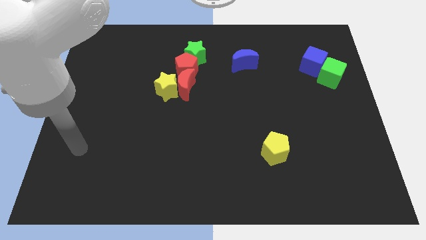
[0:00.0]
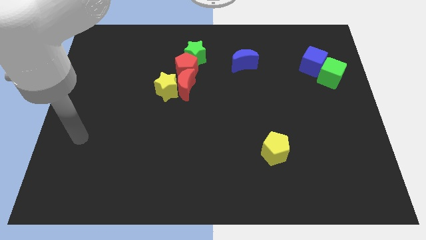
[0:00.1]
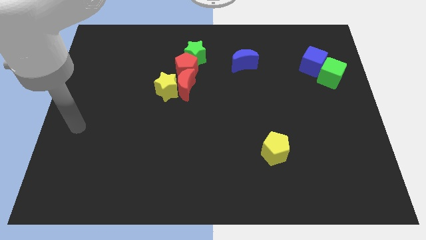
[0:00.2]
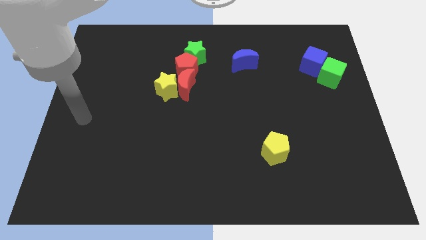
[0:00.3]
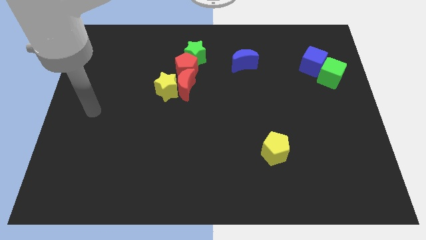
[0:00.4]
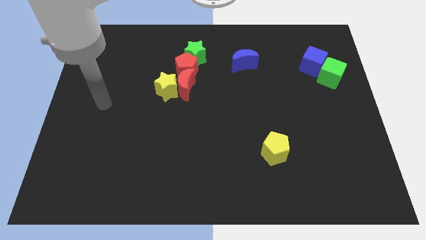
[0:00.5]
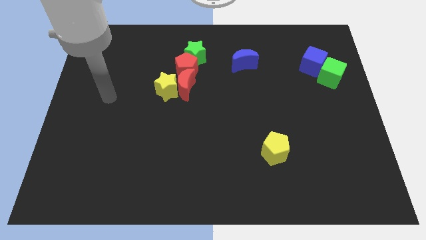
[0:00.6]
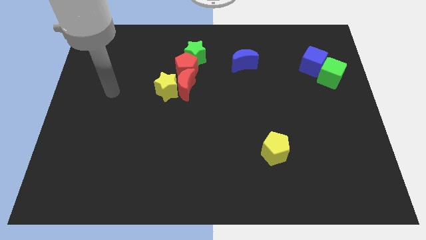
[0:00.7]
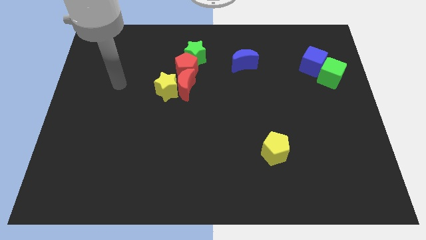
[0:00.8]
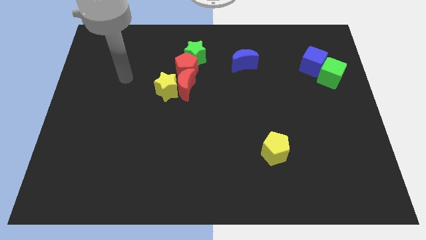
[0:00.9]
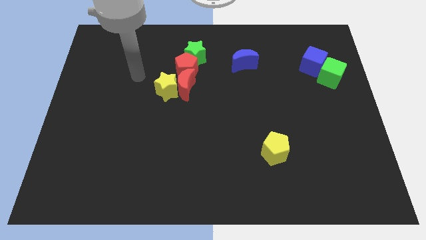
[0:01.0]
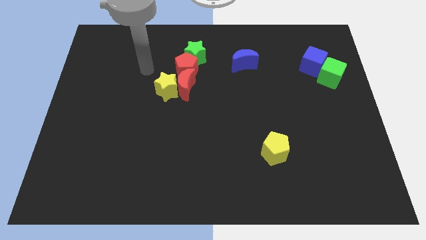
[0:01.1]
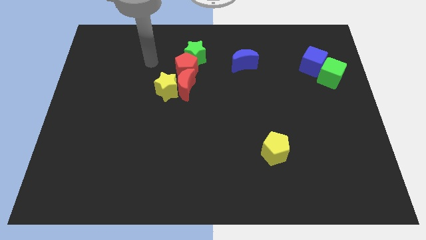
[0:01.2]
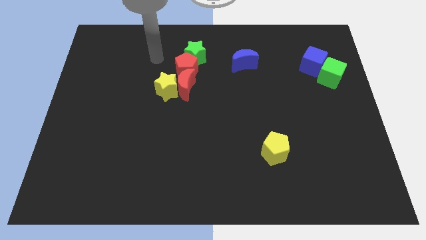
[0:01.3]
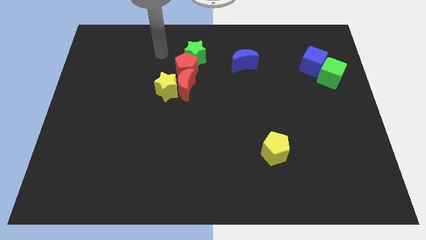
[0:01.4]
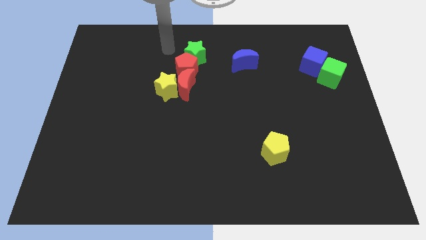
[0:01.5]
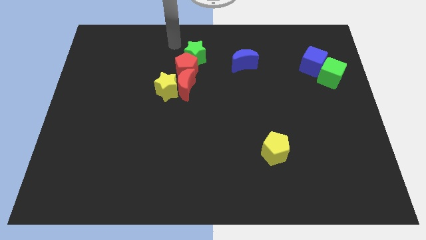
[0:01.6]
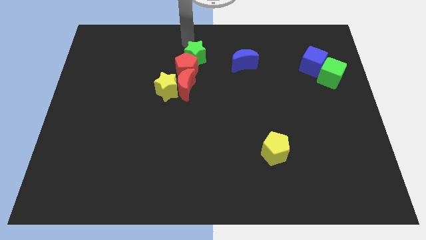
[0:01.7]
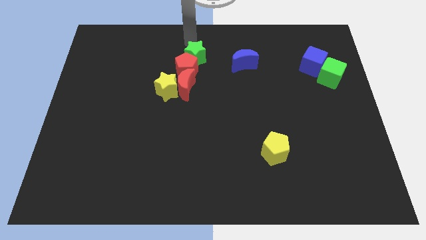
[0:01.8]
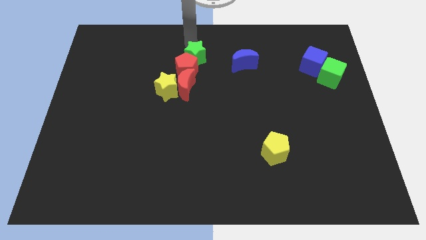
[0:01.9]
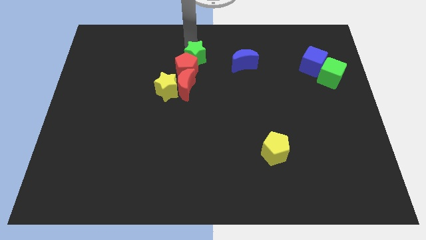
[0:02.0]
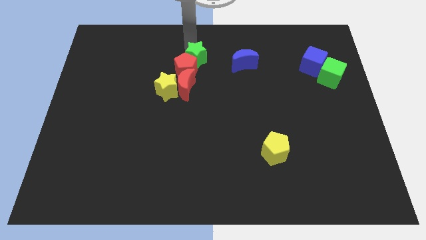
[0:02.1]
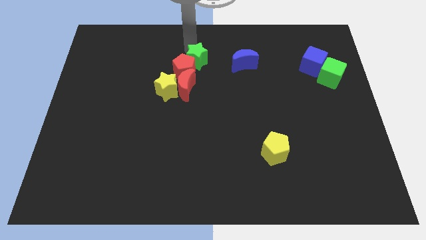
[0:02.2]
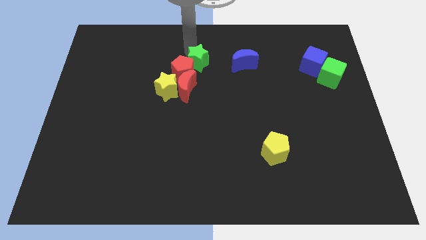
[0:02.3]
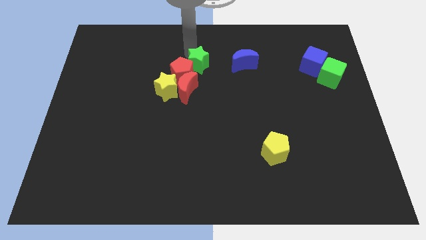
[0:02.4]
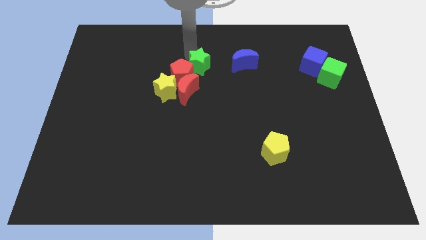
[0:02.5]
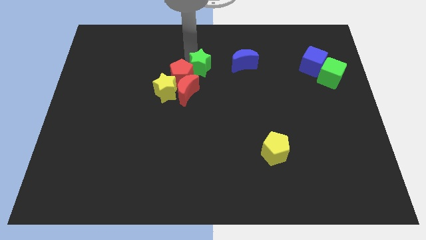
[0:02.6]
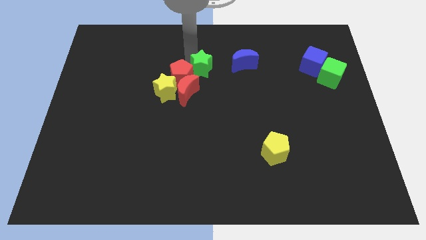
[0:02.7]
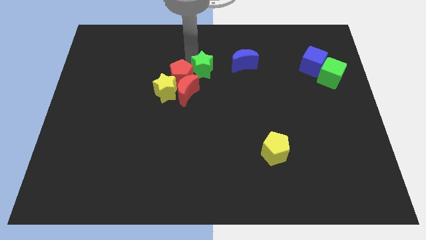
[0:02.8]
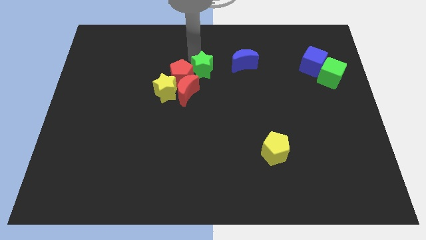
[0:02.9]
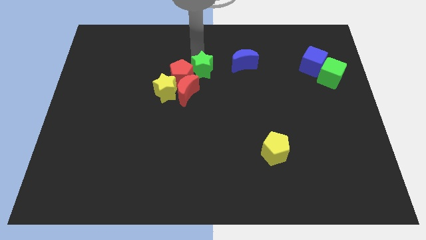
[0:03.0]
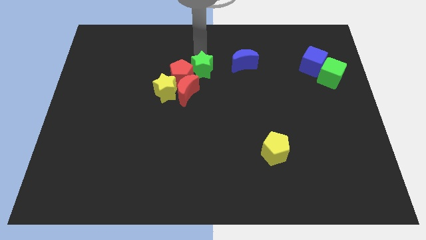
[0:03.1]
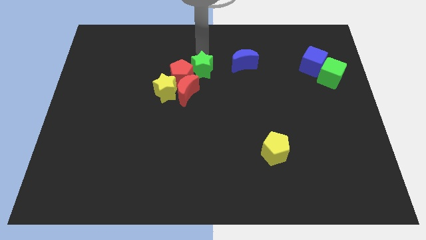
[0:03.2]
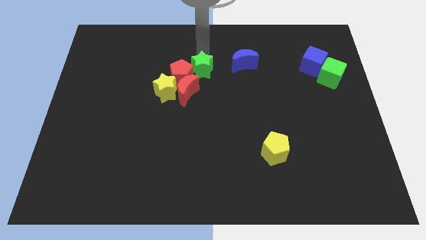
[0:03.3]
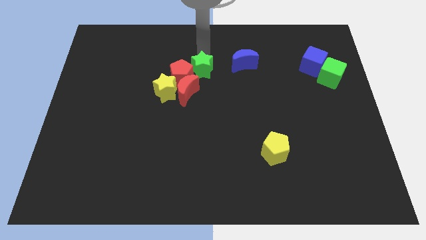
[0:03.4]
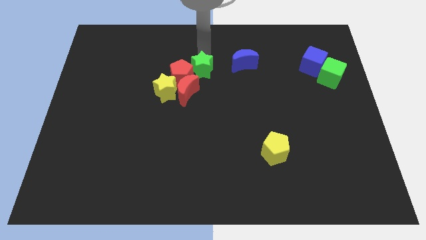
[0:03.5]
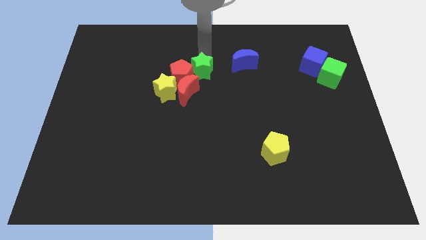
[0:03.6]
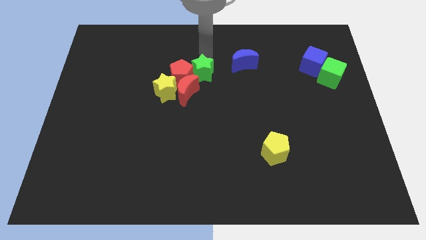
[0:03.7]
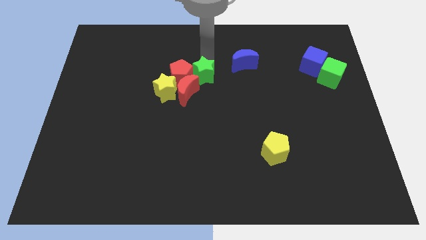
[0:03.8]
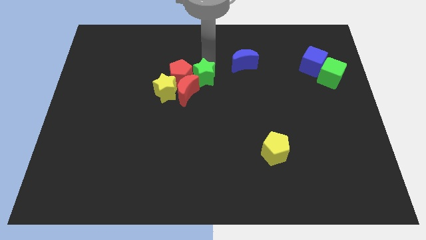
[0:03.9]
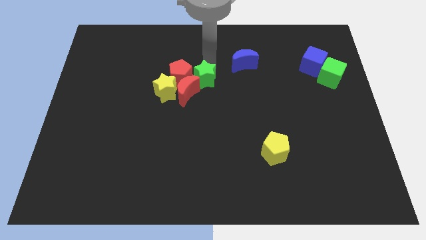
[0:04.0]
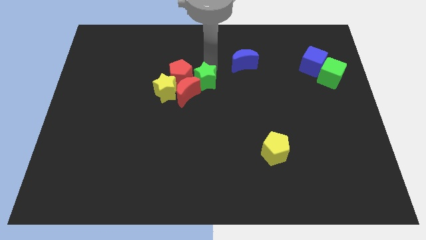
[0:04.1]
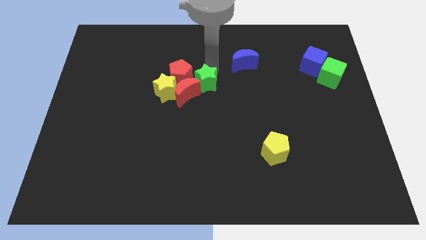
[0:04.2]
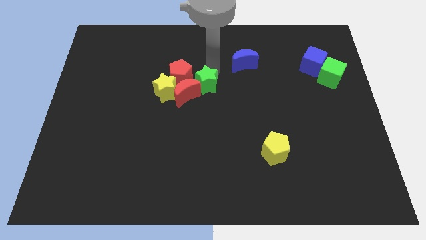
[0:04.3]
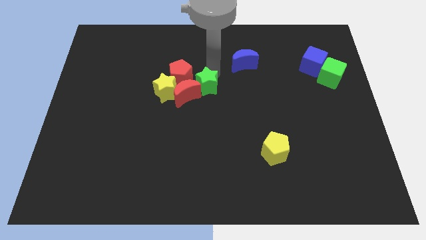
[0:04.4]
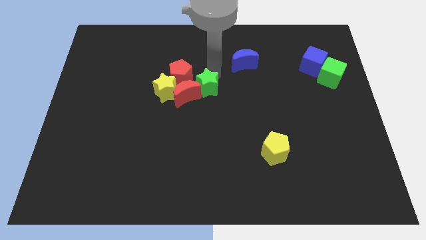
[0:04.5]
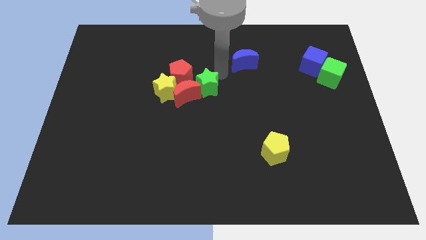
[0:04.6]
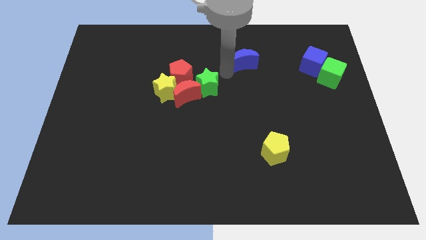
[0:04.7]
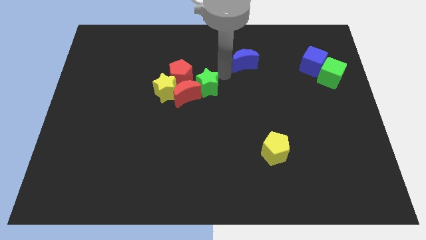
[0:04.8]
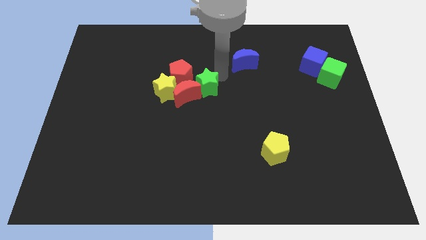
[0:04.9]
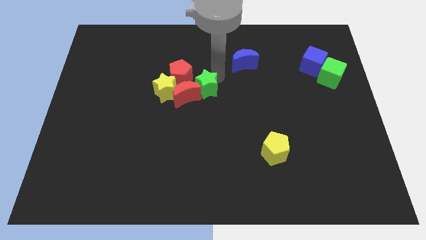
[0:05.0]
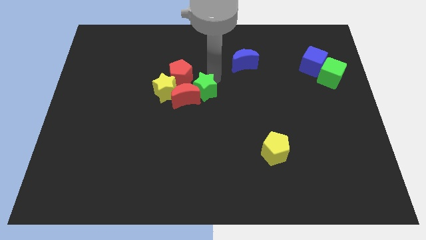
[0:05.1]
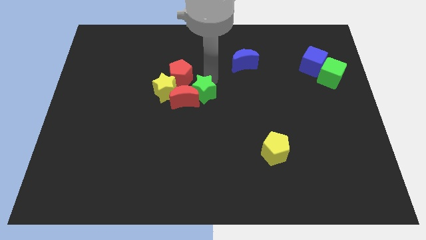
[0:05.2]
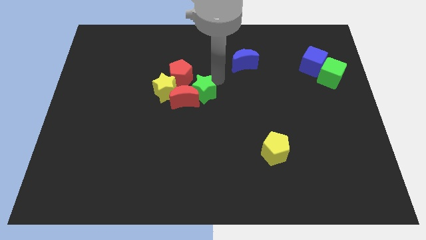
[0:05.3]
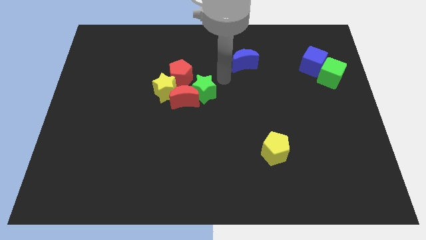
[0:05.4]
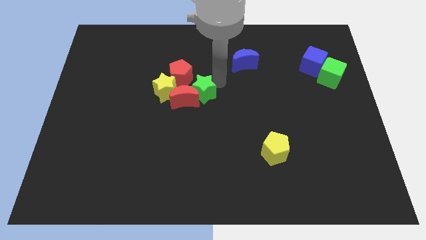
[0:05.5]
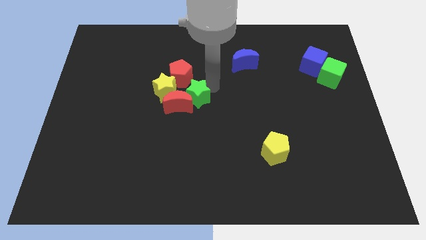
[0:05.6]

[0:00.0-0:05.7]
move the green star below the red pentagon

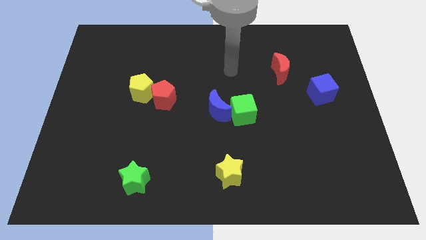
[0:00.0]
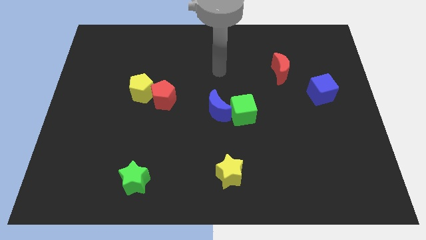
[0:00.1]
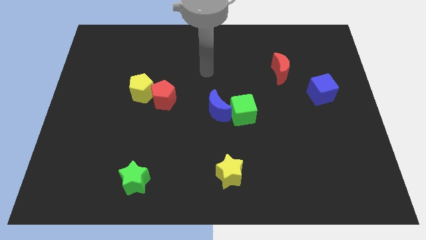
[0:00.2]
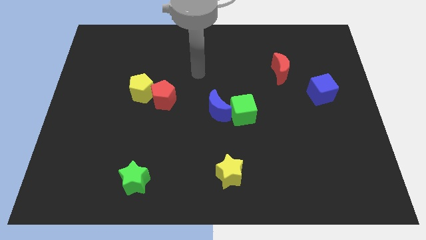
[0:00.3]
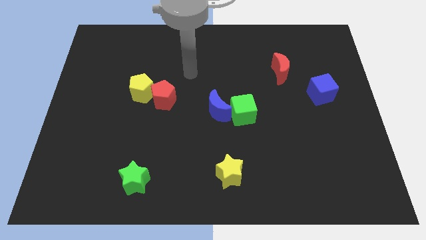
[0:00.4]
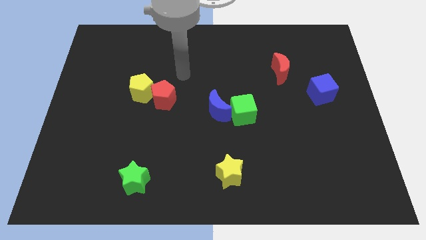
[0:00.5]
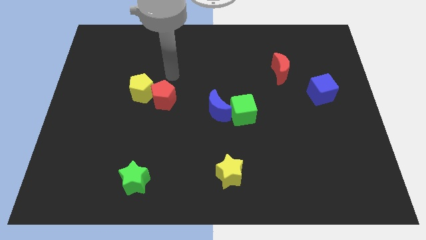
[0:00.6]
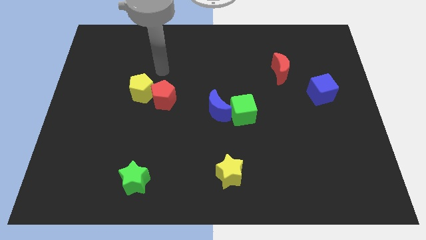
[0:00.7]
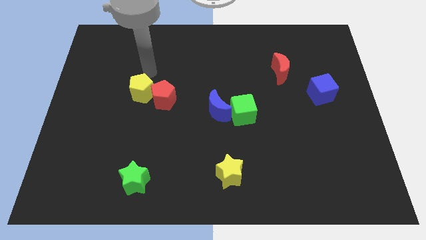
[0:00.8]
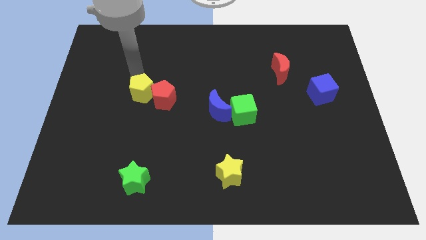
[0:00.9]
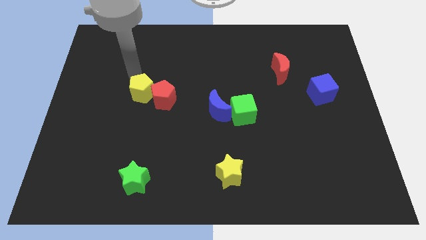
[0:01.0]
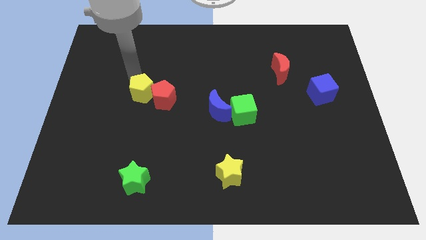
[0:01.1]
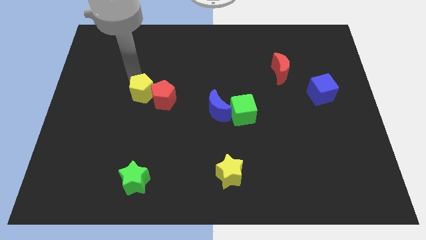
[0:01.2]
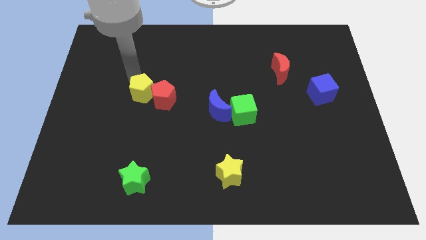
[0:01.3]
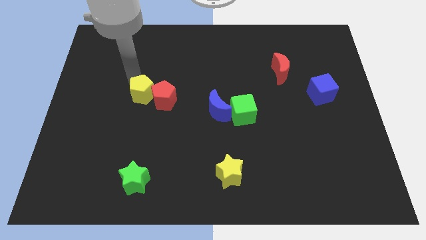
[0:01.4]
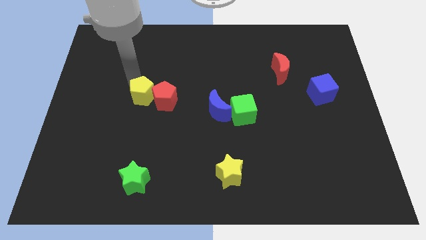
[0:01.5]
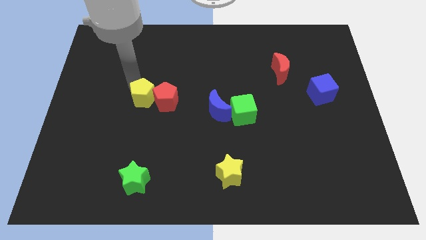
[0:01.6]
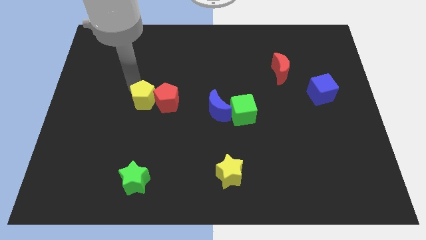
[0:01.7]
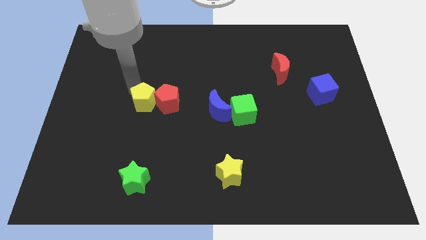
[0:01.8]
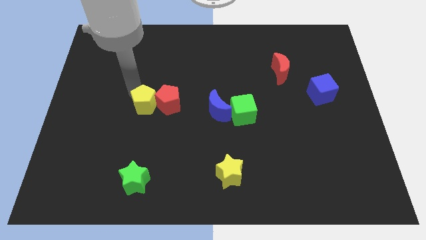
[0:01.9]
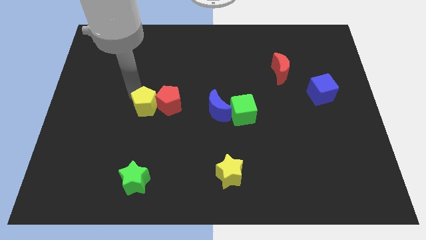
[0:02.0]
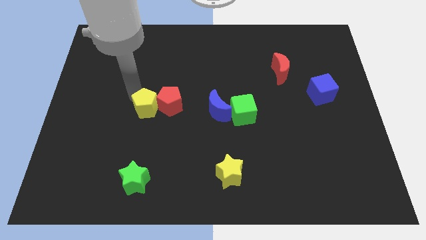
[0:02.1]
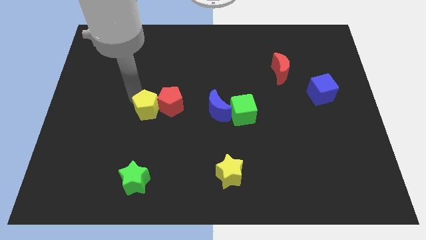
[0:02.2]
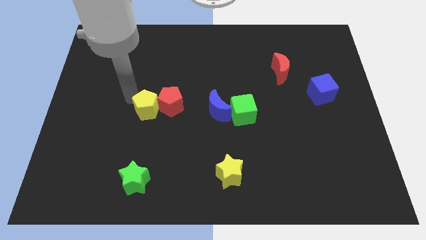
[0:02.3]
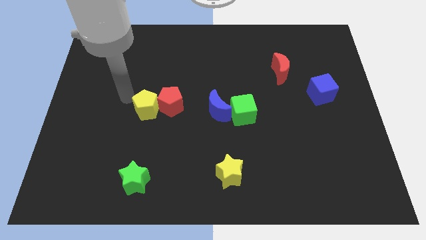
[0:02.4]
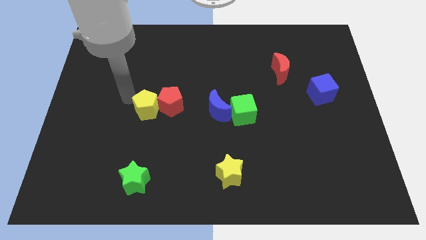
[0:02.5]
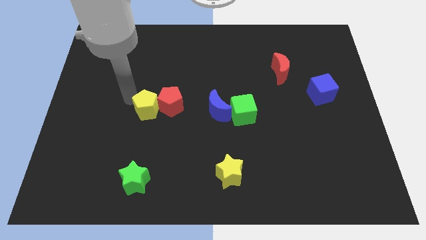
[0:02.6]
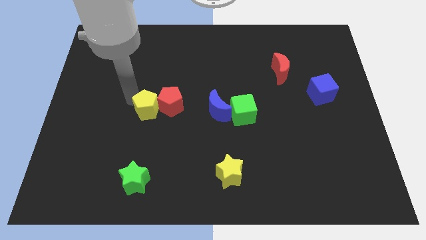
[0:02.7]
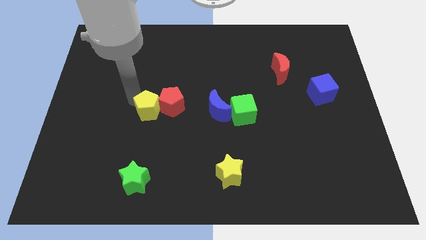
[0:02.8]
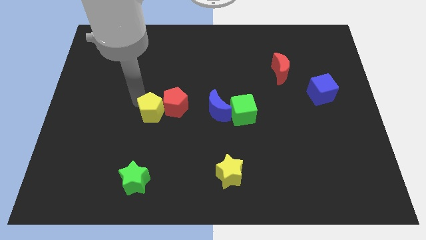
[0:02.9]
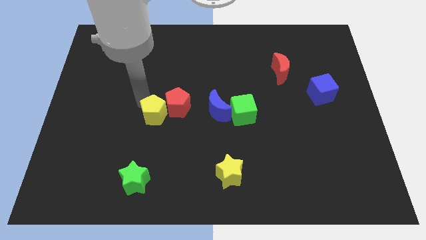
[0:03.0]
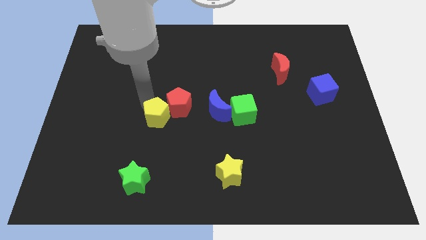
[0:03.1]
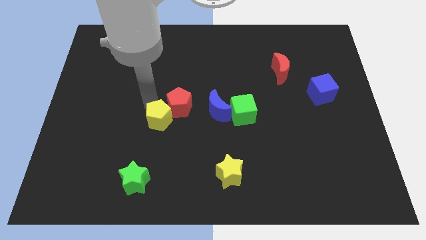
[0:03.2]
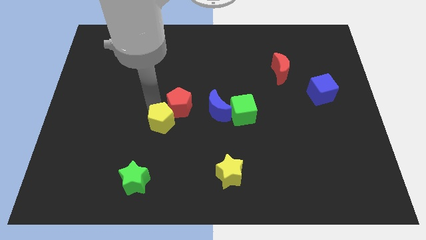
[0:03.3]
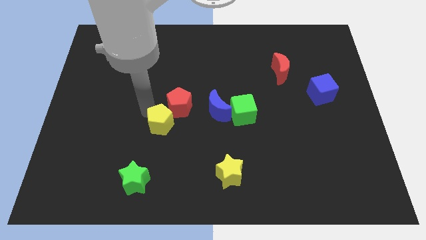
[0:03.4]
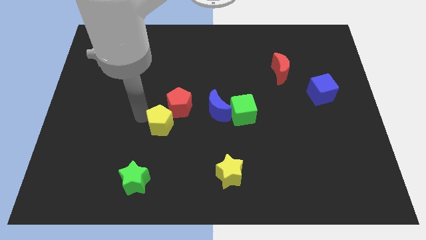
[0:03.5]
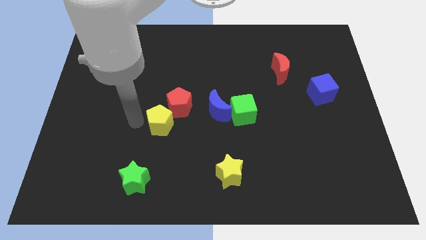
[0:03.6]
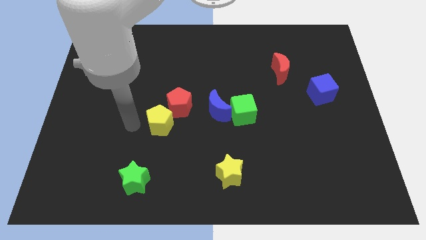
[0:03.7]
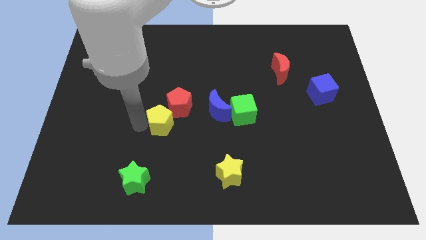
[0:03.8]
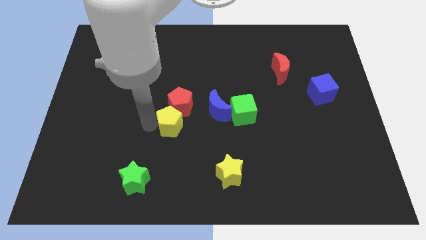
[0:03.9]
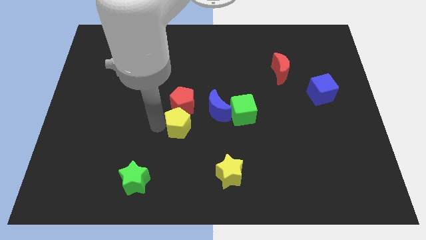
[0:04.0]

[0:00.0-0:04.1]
slide the yellow pentagon to the bottom right side of the red pentagon
